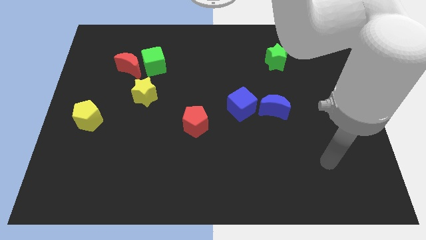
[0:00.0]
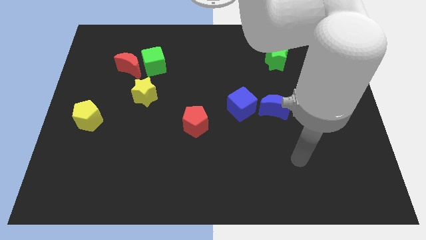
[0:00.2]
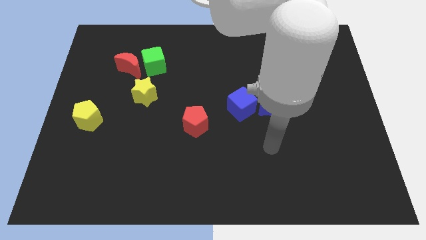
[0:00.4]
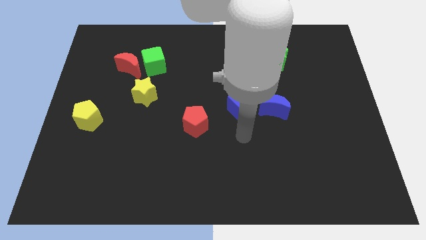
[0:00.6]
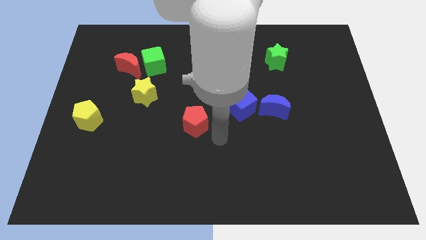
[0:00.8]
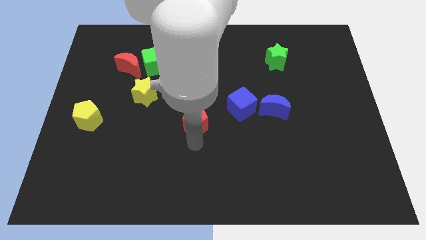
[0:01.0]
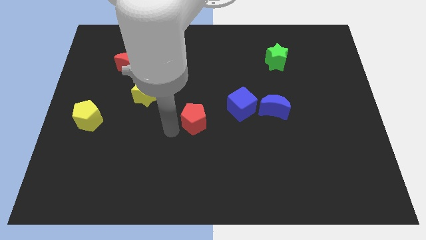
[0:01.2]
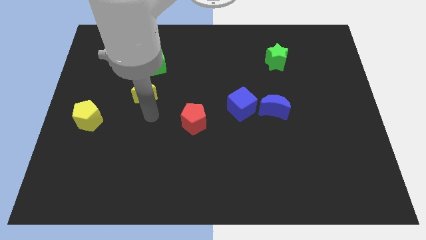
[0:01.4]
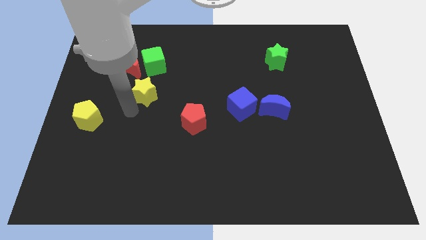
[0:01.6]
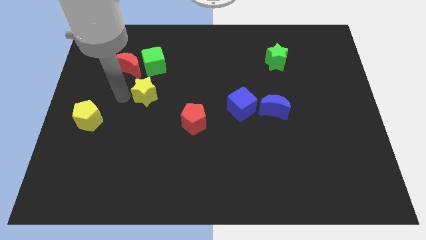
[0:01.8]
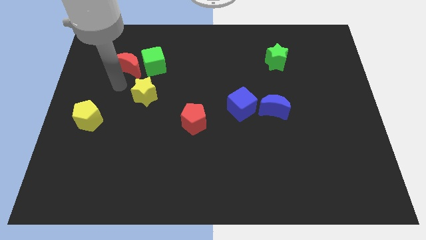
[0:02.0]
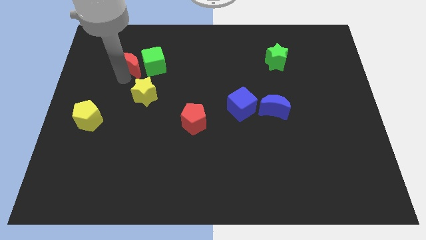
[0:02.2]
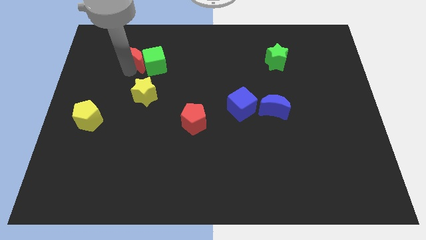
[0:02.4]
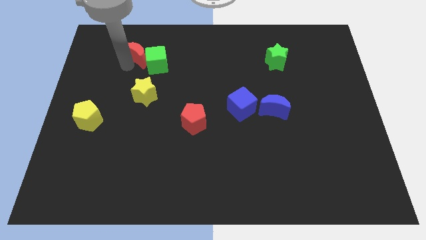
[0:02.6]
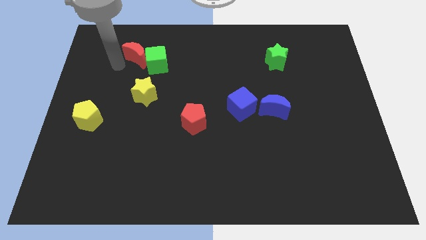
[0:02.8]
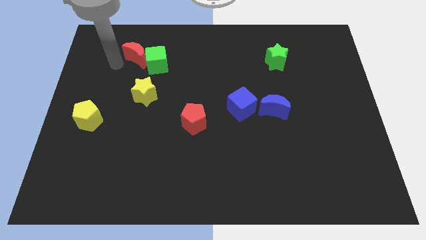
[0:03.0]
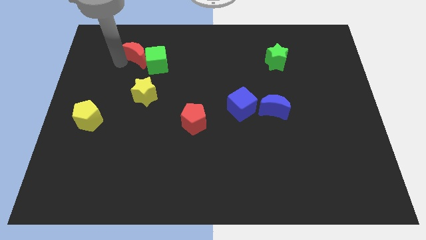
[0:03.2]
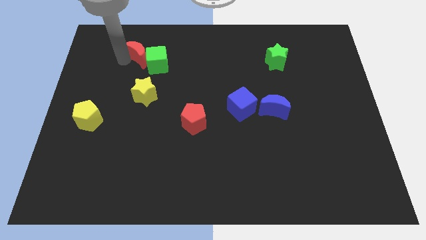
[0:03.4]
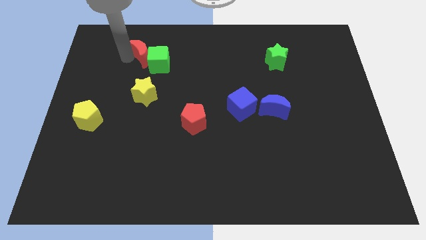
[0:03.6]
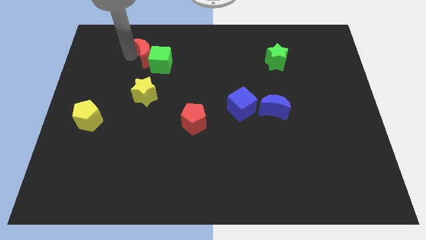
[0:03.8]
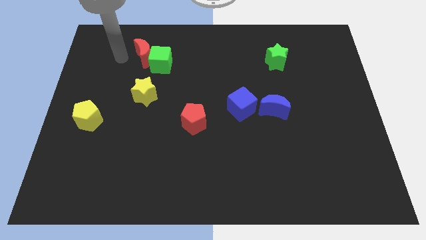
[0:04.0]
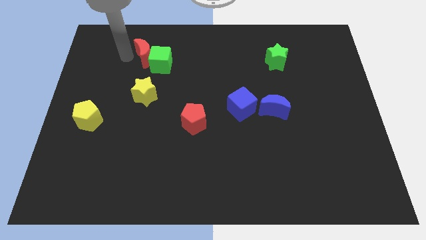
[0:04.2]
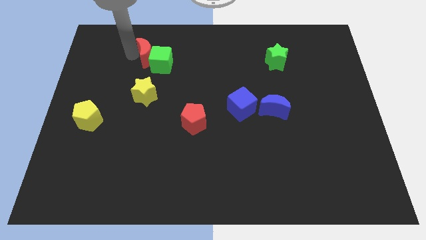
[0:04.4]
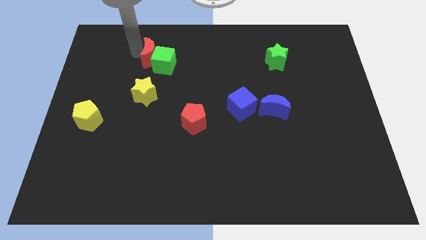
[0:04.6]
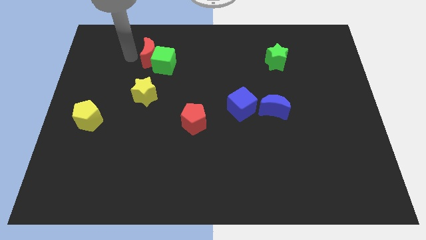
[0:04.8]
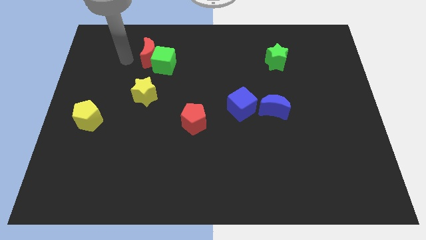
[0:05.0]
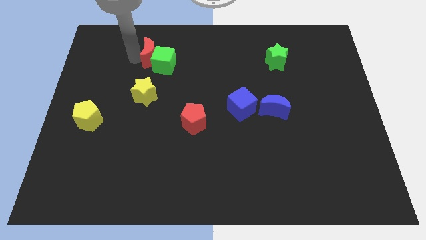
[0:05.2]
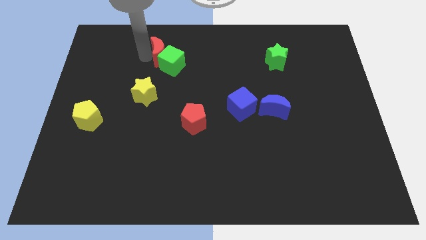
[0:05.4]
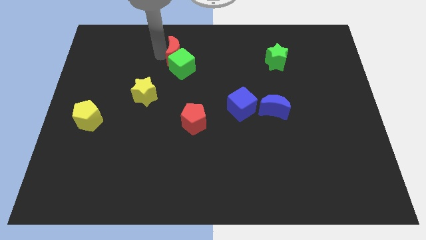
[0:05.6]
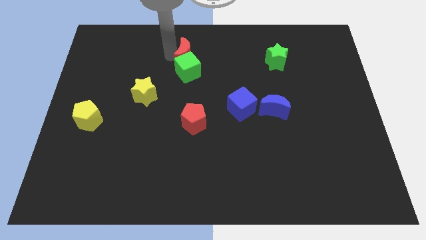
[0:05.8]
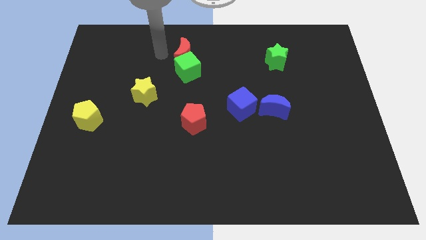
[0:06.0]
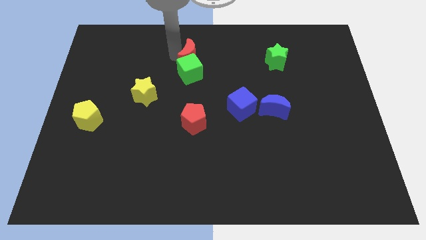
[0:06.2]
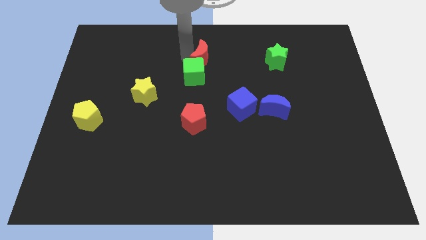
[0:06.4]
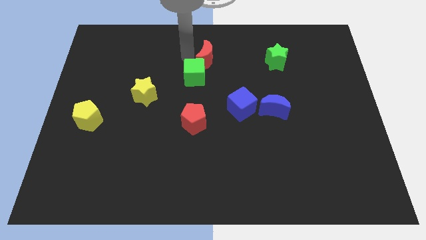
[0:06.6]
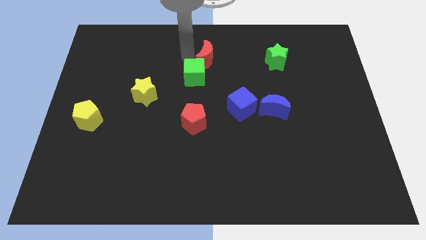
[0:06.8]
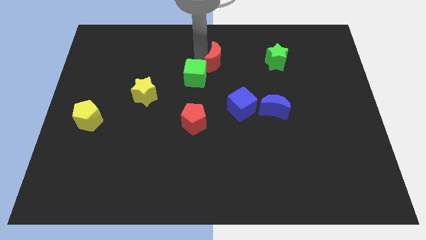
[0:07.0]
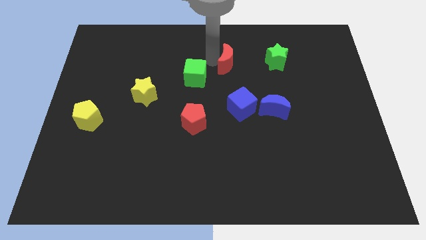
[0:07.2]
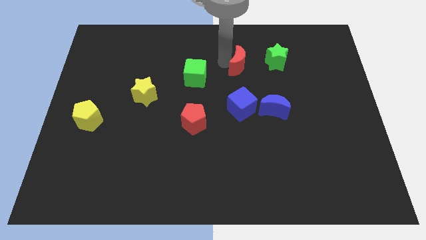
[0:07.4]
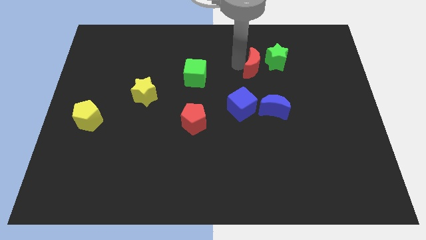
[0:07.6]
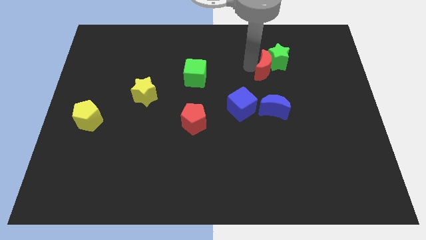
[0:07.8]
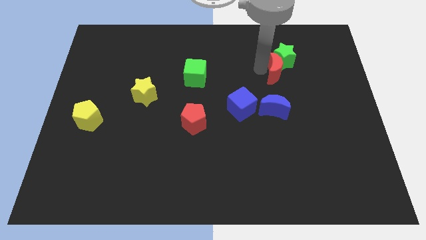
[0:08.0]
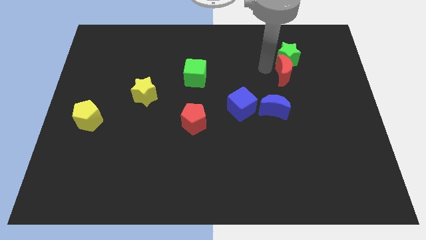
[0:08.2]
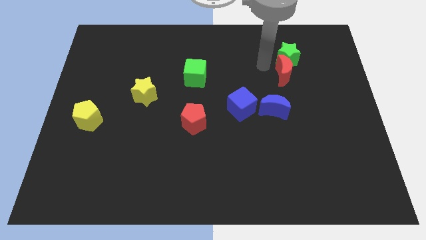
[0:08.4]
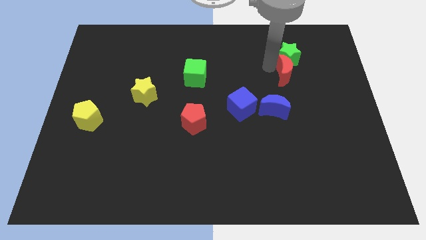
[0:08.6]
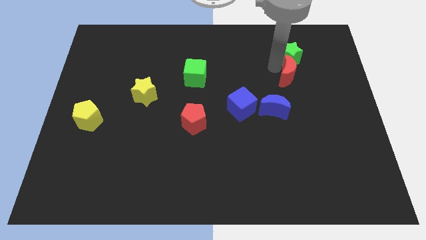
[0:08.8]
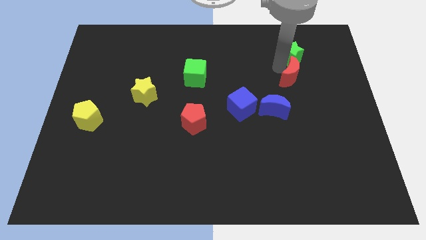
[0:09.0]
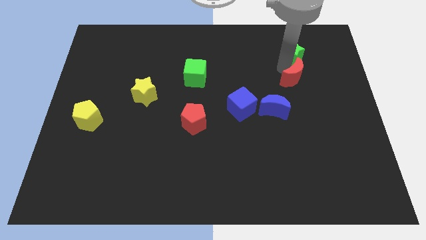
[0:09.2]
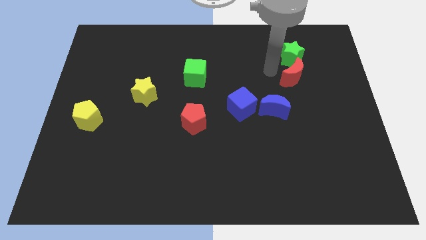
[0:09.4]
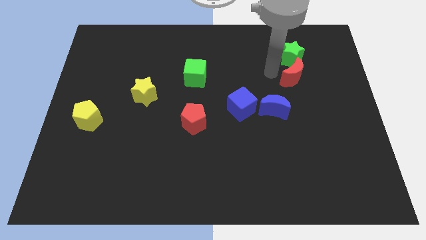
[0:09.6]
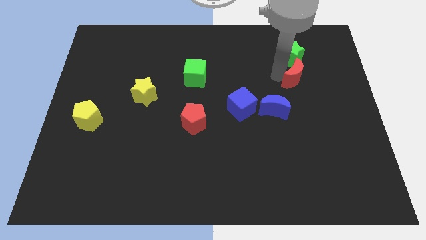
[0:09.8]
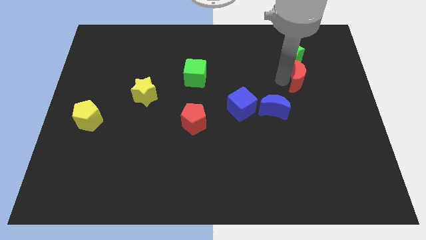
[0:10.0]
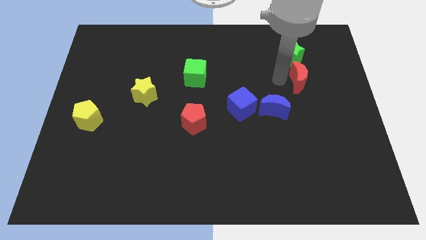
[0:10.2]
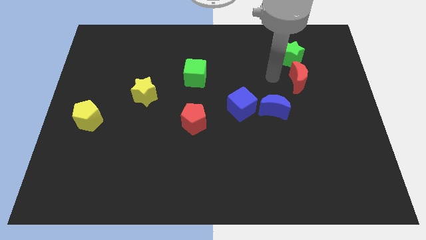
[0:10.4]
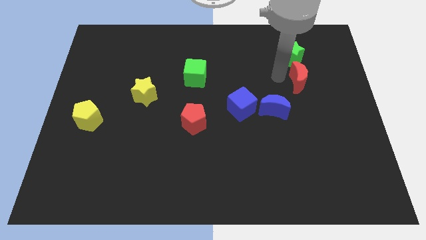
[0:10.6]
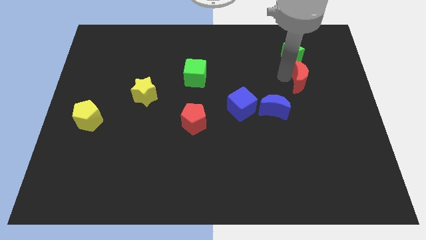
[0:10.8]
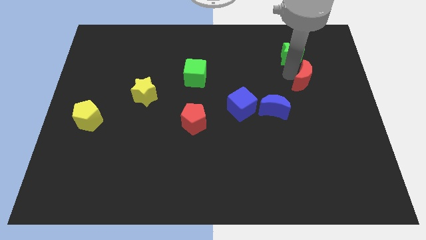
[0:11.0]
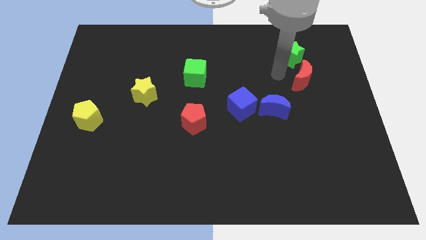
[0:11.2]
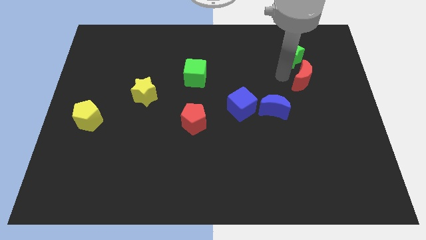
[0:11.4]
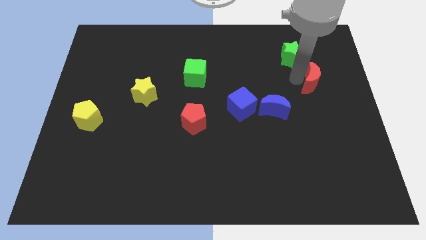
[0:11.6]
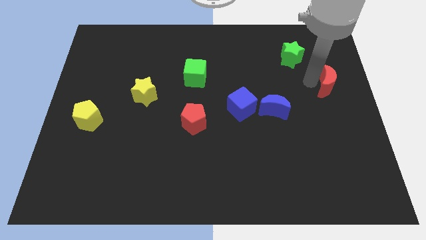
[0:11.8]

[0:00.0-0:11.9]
move the red moon to the center right
